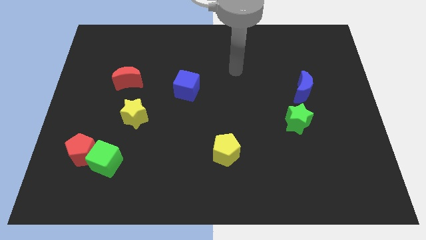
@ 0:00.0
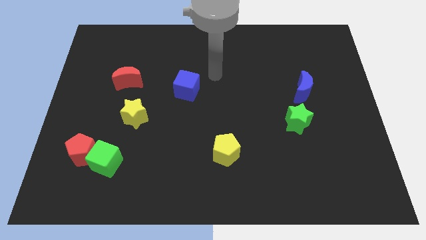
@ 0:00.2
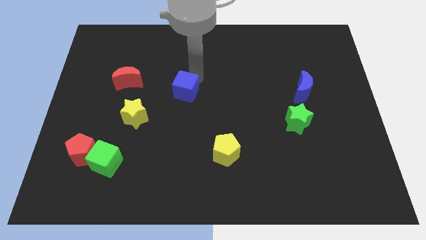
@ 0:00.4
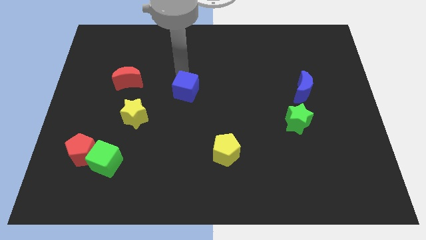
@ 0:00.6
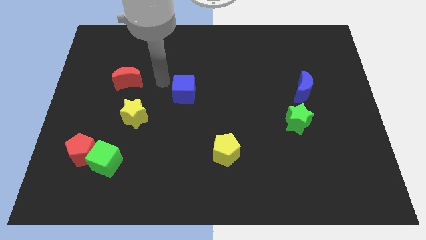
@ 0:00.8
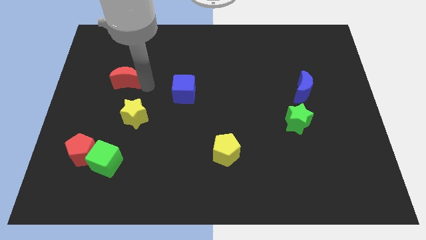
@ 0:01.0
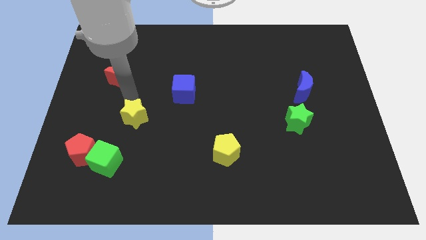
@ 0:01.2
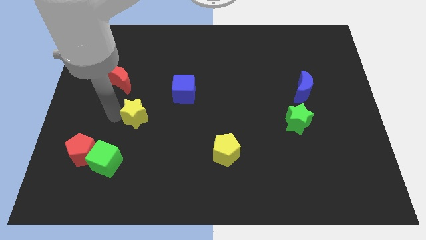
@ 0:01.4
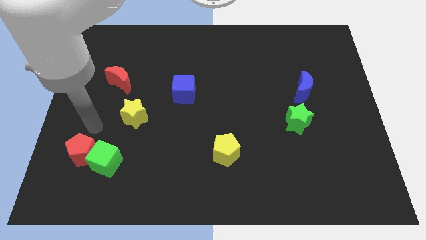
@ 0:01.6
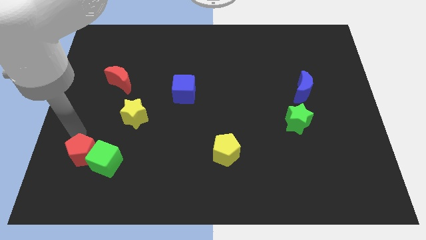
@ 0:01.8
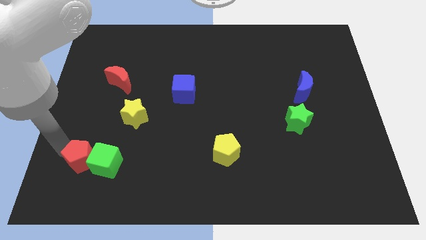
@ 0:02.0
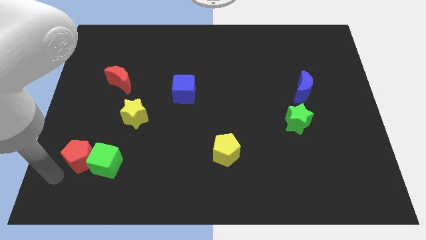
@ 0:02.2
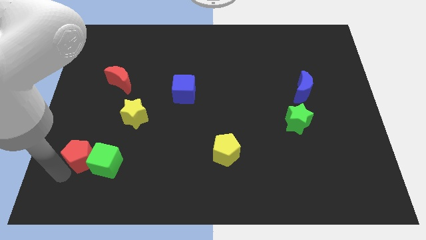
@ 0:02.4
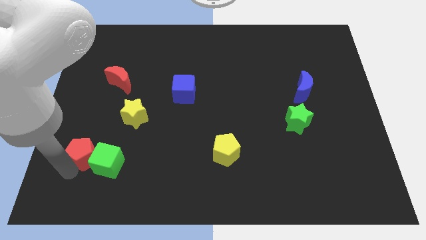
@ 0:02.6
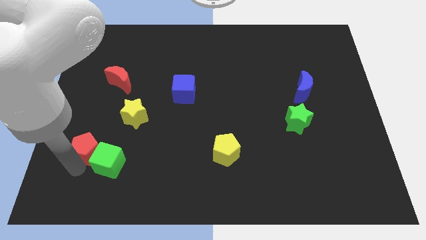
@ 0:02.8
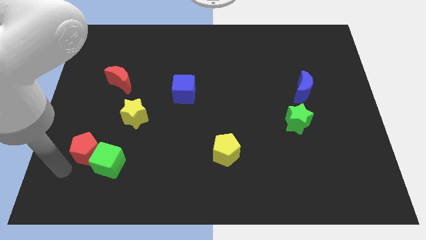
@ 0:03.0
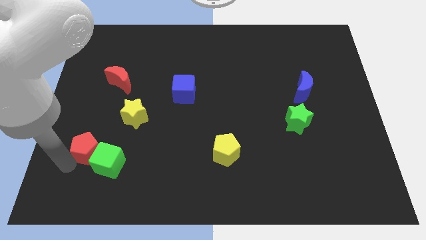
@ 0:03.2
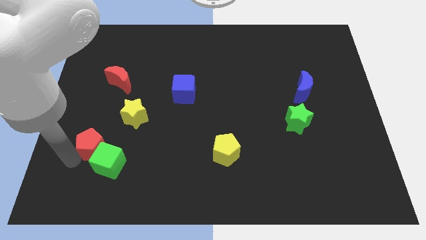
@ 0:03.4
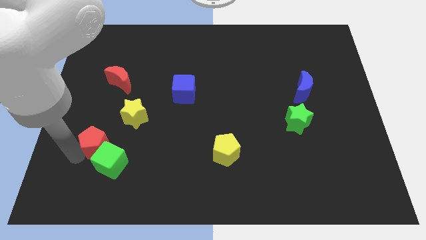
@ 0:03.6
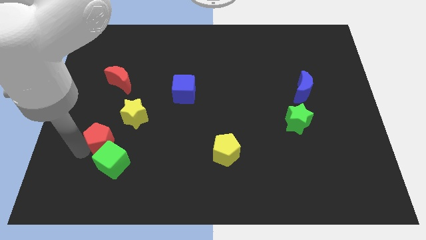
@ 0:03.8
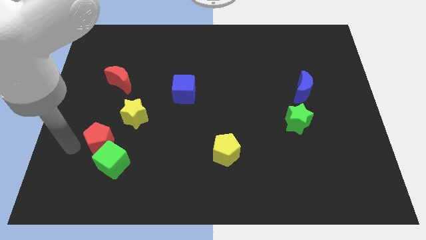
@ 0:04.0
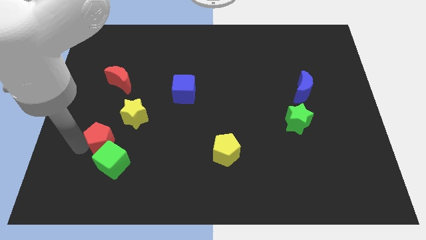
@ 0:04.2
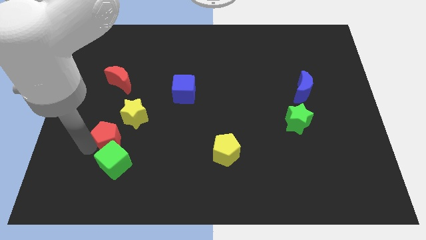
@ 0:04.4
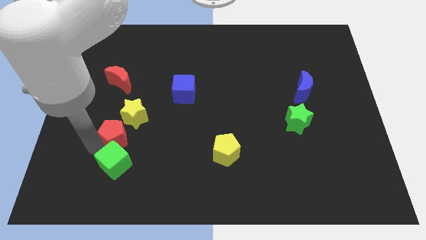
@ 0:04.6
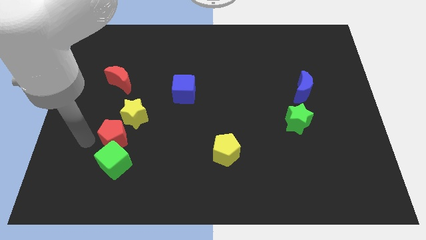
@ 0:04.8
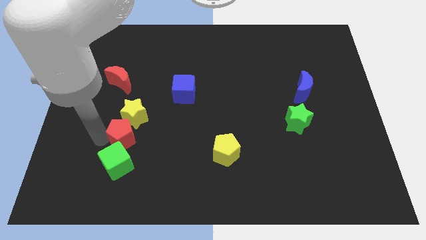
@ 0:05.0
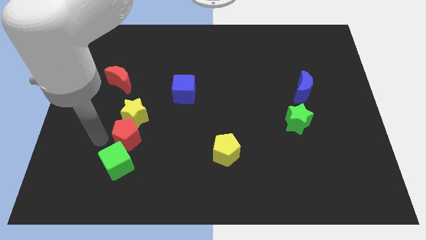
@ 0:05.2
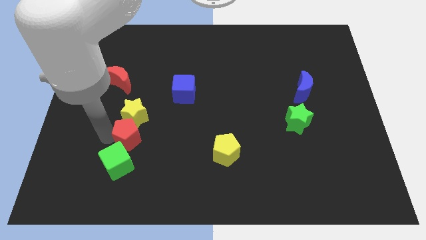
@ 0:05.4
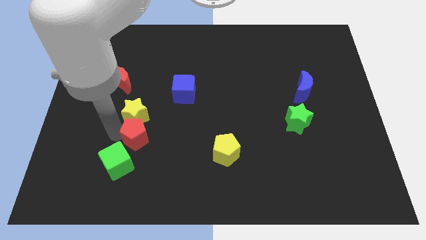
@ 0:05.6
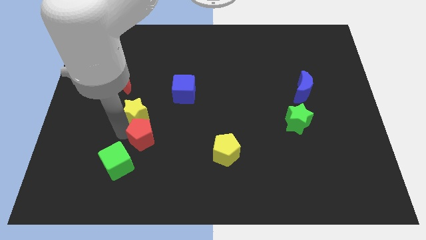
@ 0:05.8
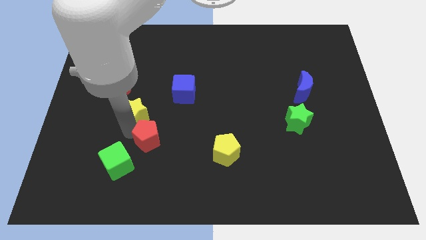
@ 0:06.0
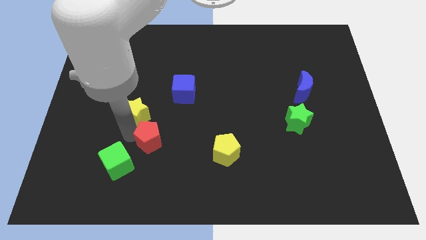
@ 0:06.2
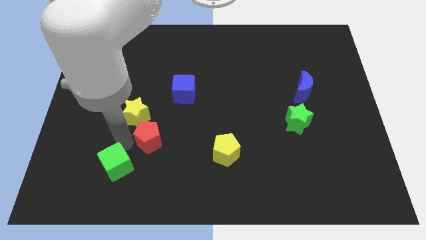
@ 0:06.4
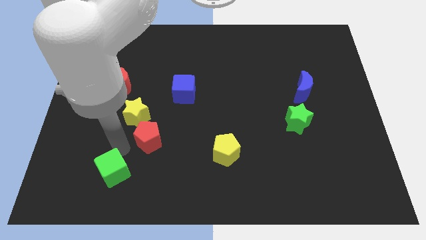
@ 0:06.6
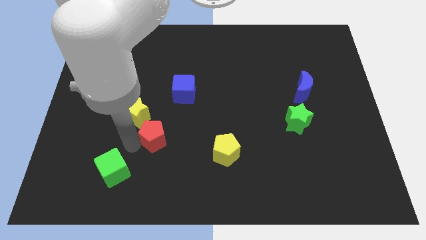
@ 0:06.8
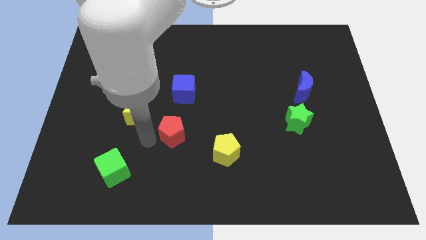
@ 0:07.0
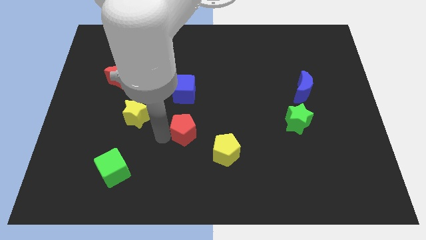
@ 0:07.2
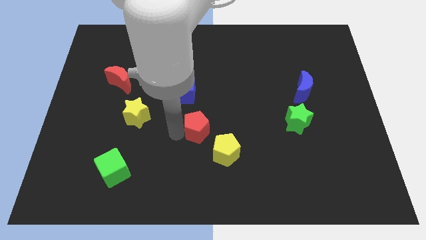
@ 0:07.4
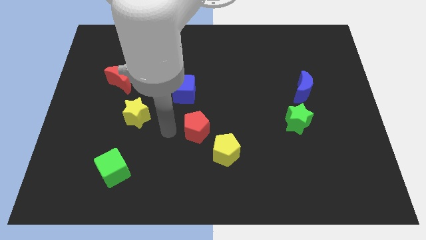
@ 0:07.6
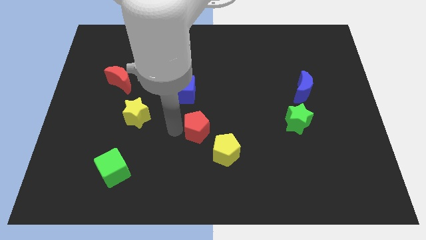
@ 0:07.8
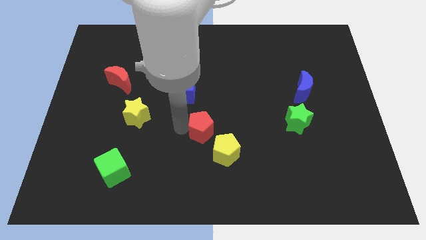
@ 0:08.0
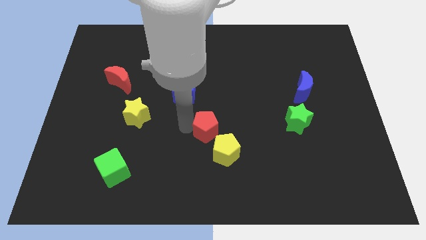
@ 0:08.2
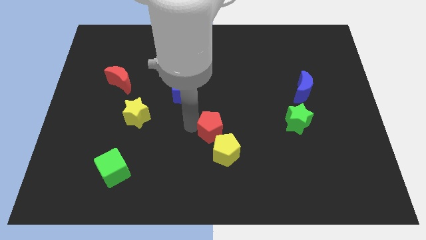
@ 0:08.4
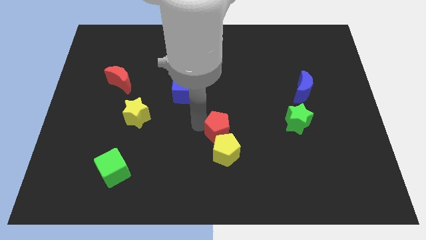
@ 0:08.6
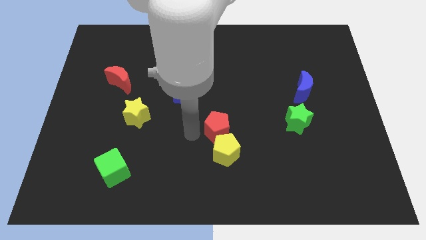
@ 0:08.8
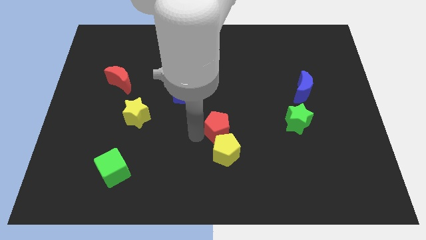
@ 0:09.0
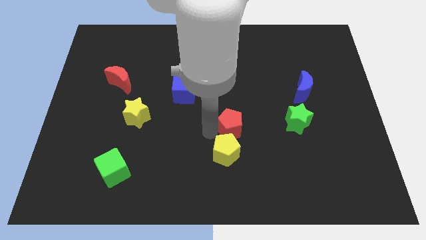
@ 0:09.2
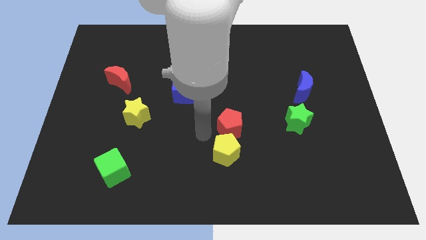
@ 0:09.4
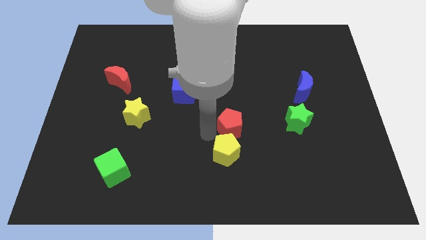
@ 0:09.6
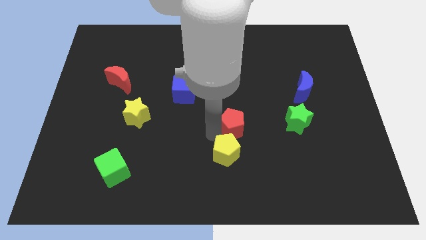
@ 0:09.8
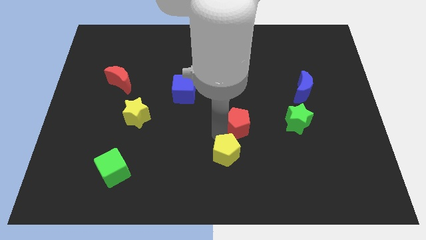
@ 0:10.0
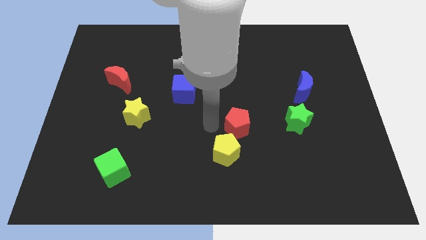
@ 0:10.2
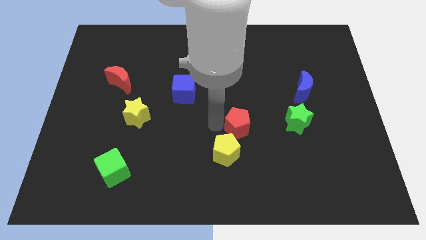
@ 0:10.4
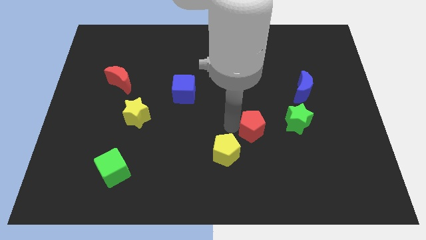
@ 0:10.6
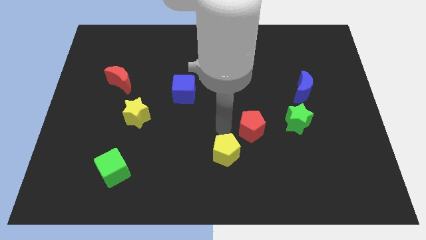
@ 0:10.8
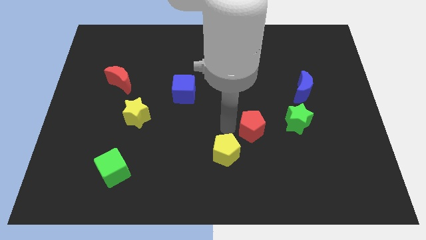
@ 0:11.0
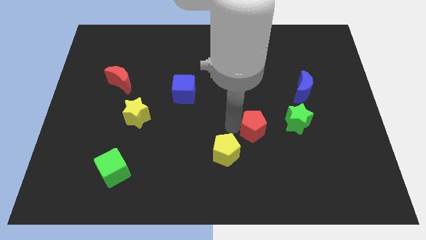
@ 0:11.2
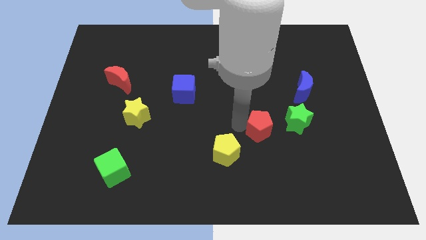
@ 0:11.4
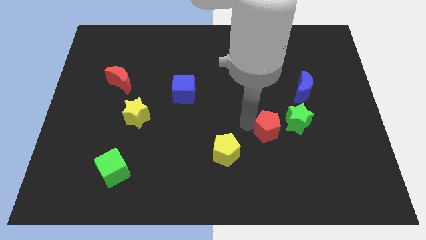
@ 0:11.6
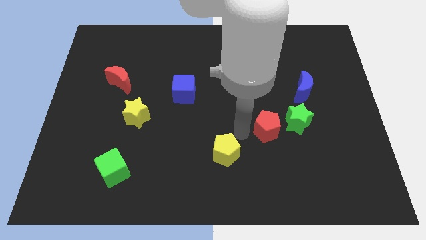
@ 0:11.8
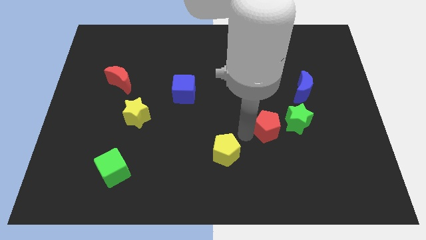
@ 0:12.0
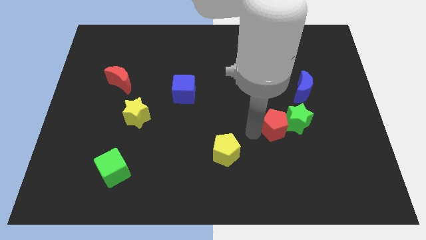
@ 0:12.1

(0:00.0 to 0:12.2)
put the red pentagon to the green star
